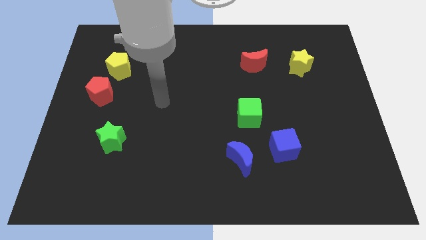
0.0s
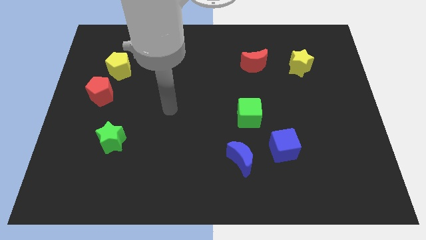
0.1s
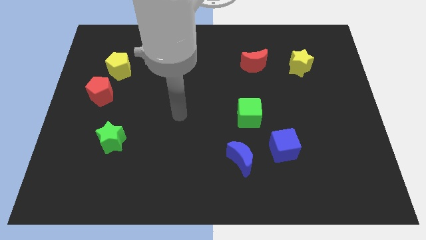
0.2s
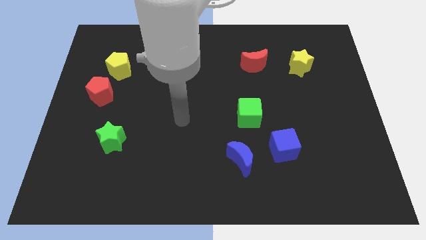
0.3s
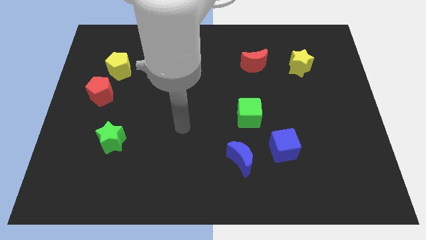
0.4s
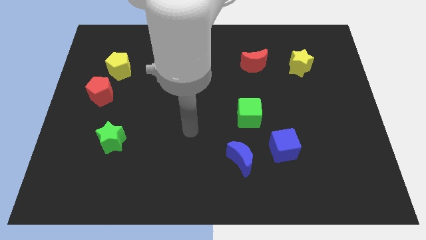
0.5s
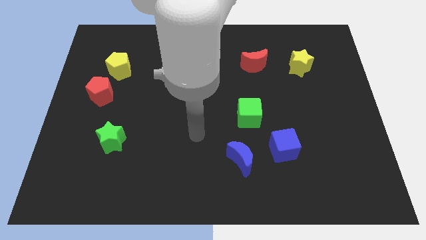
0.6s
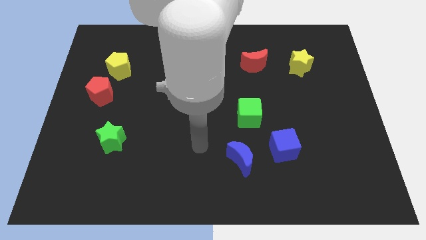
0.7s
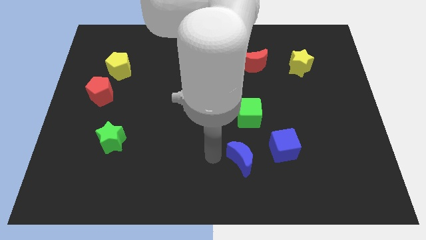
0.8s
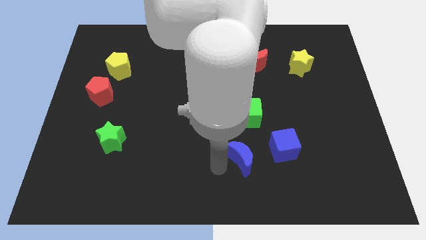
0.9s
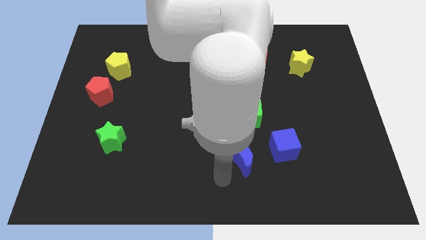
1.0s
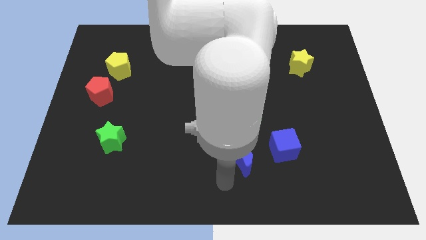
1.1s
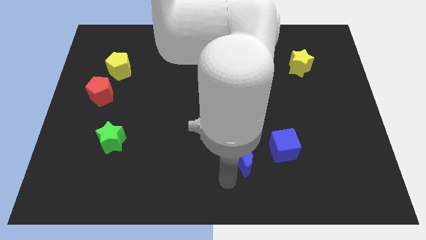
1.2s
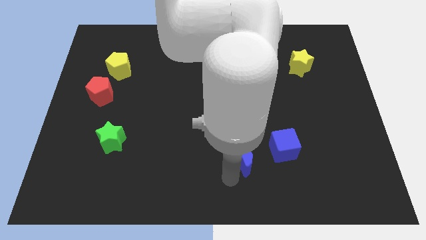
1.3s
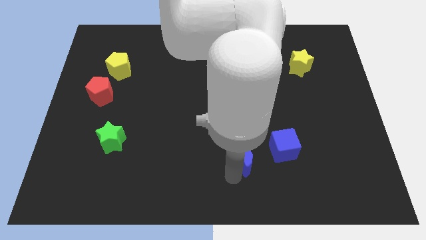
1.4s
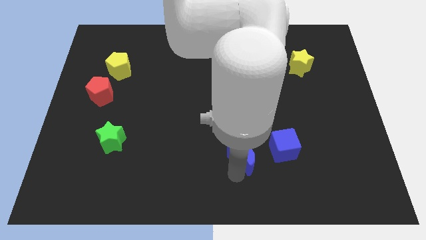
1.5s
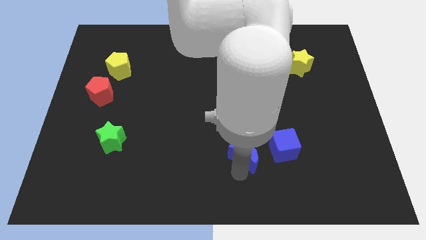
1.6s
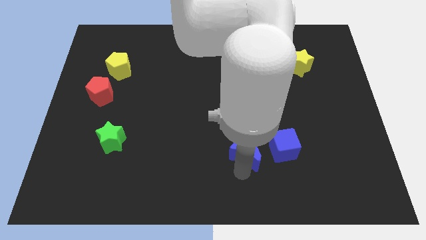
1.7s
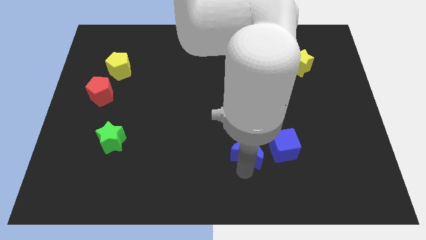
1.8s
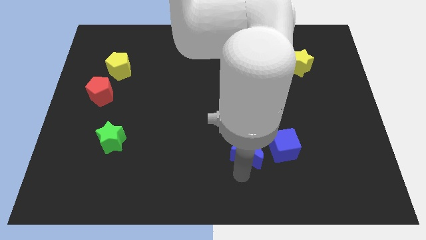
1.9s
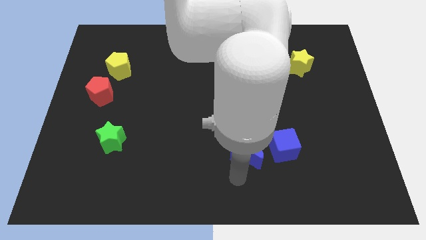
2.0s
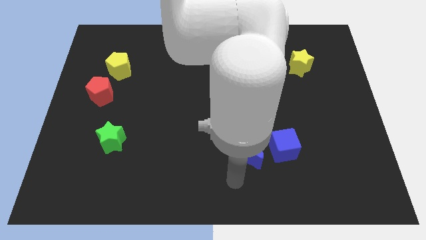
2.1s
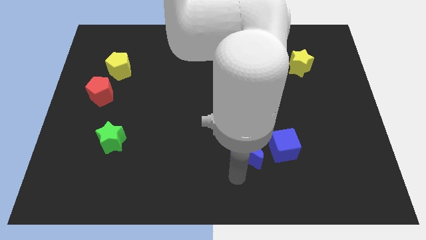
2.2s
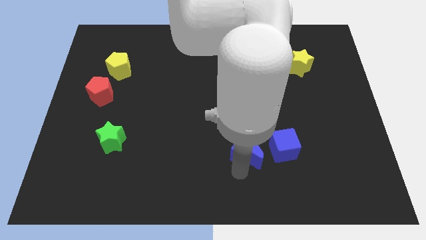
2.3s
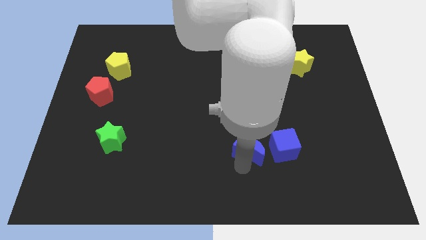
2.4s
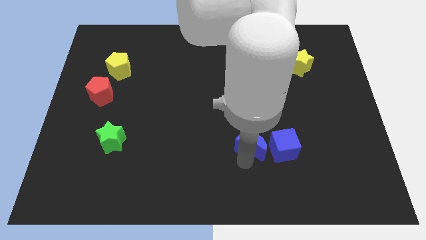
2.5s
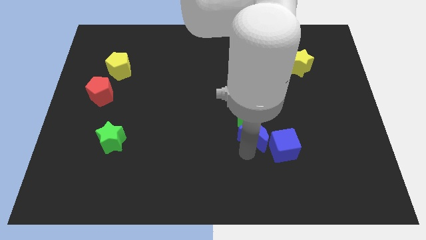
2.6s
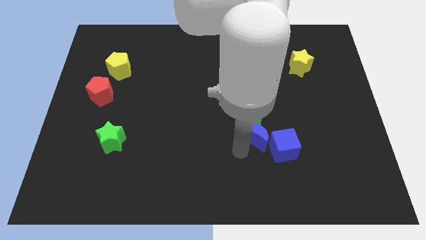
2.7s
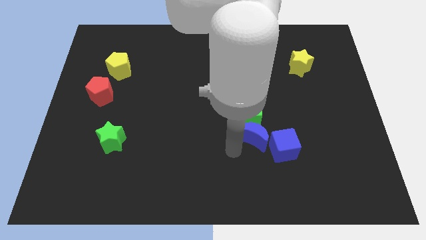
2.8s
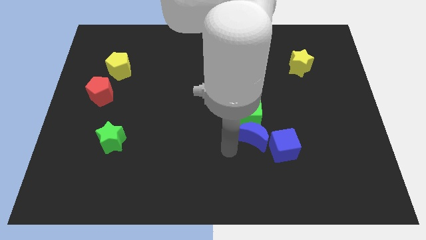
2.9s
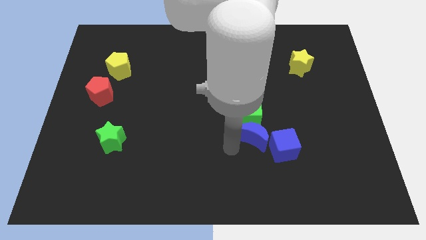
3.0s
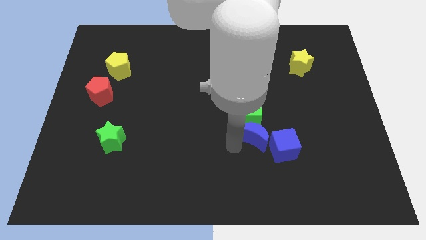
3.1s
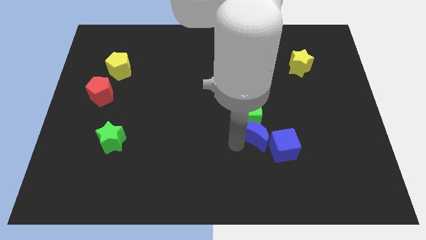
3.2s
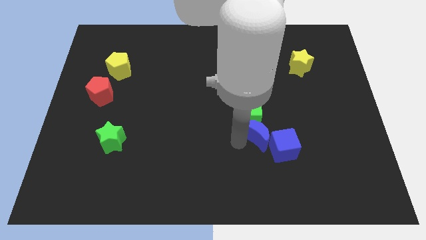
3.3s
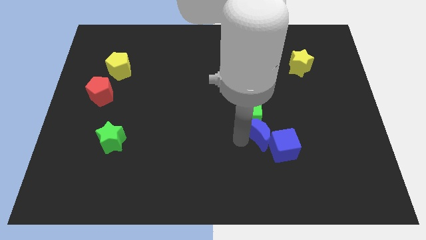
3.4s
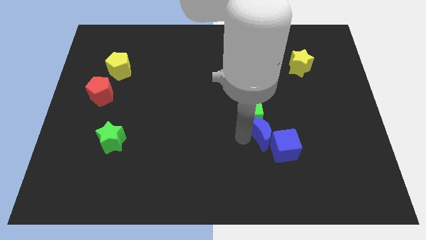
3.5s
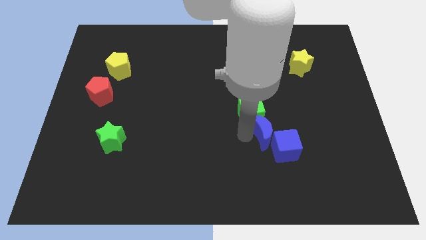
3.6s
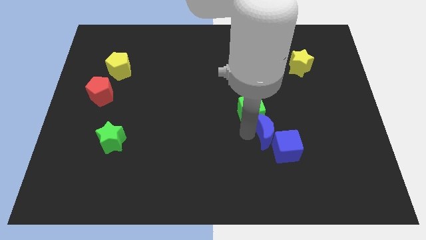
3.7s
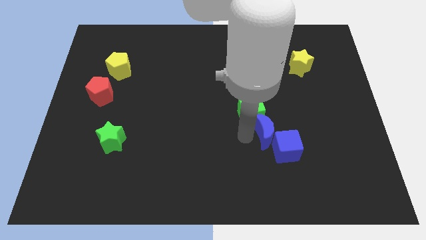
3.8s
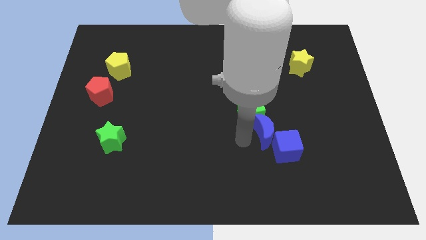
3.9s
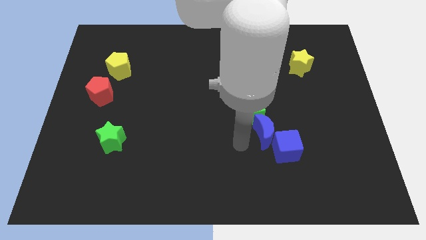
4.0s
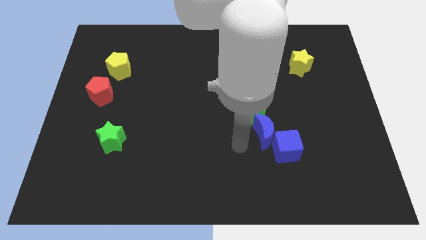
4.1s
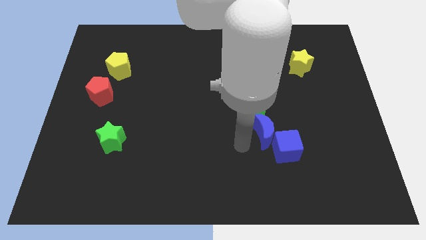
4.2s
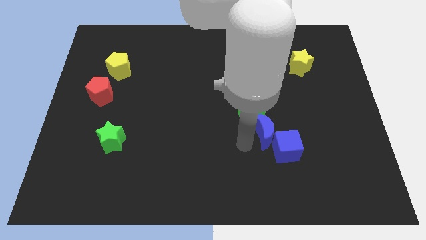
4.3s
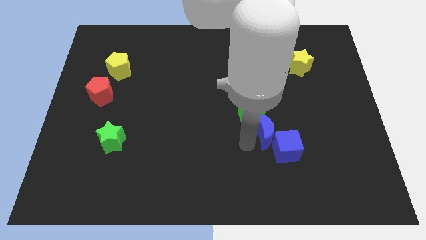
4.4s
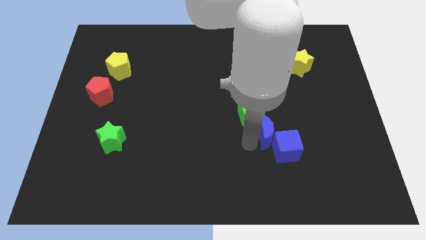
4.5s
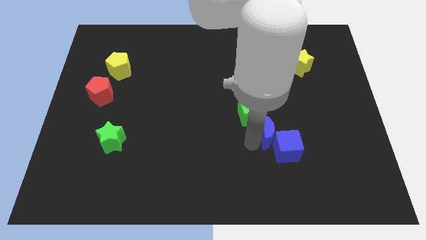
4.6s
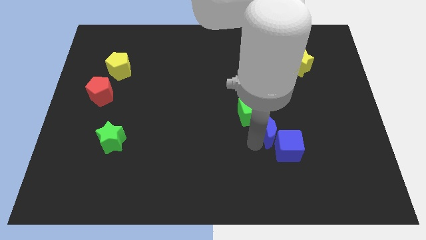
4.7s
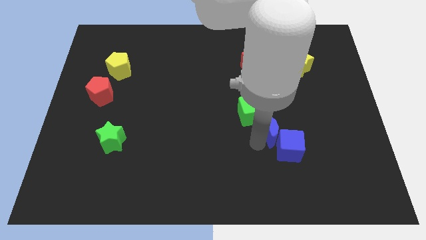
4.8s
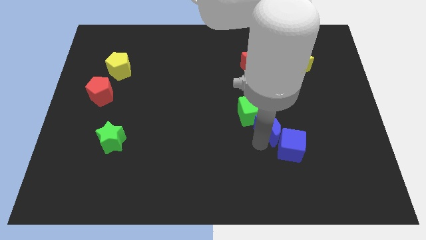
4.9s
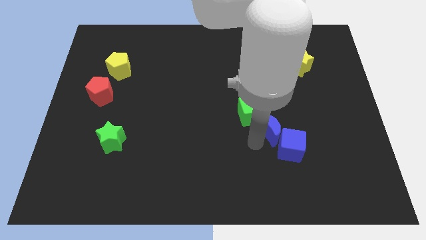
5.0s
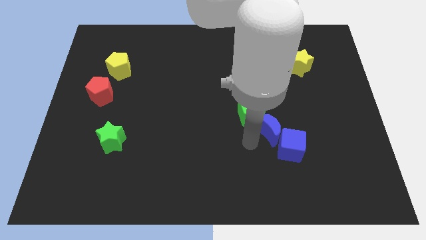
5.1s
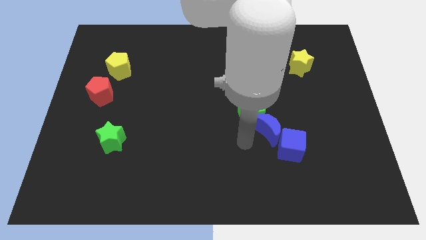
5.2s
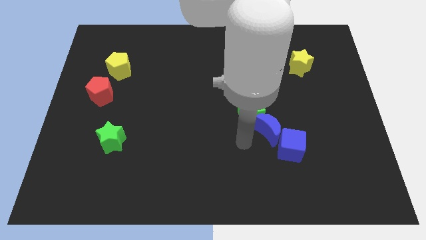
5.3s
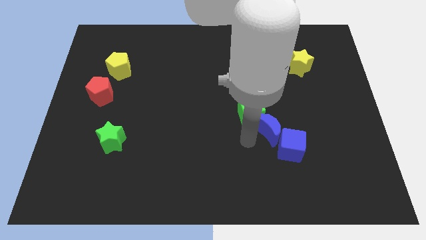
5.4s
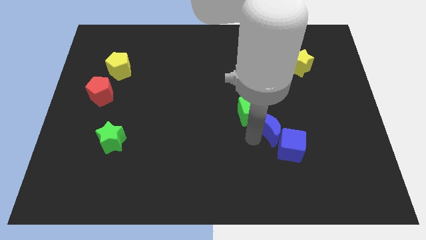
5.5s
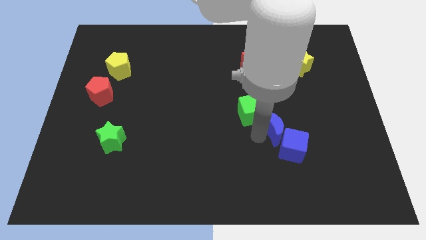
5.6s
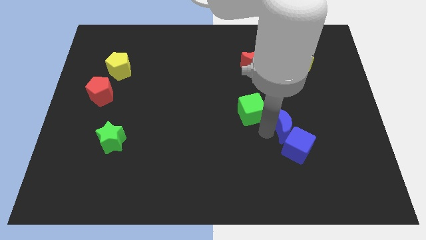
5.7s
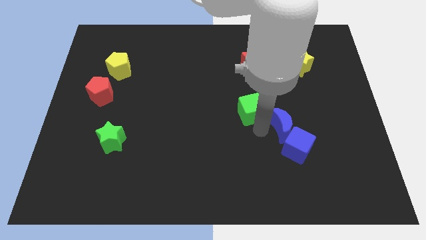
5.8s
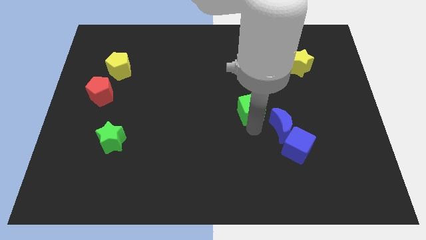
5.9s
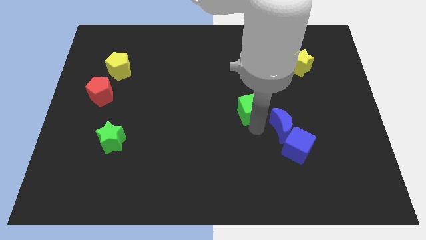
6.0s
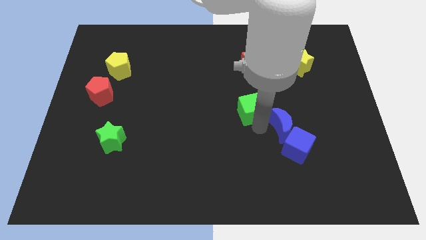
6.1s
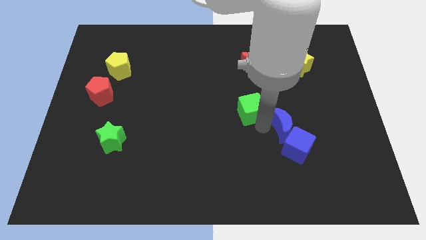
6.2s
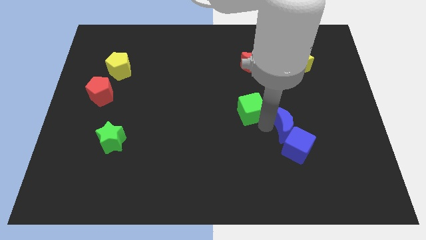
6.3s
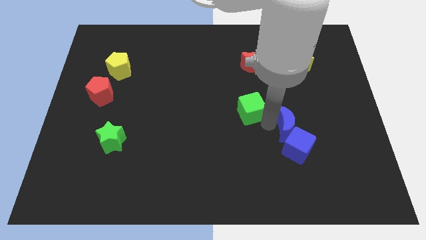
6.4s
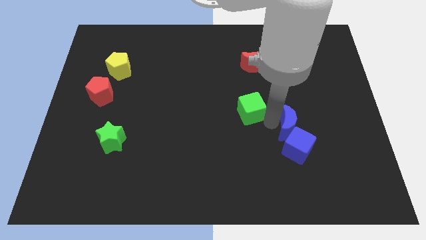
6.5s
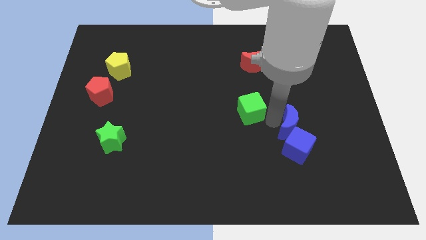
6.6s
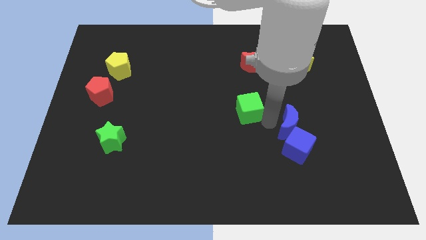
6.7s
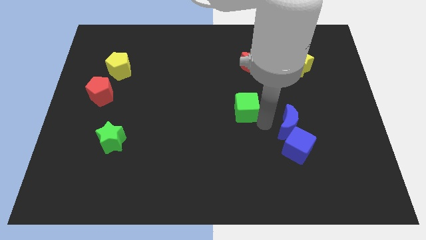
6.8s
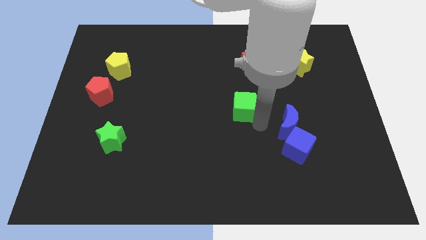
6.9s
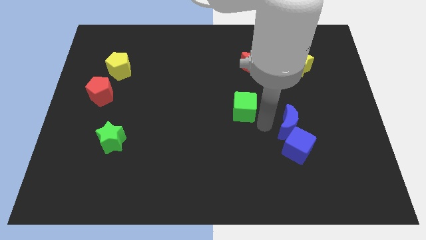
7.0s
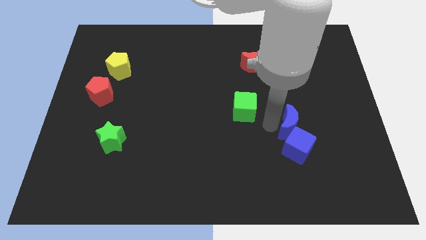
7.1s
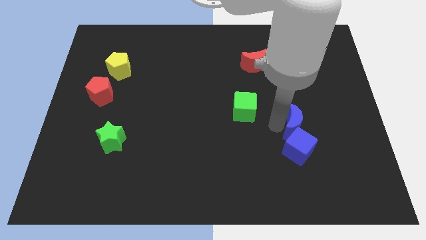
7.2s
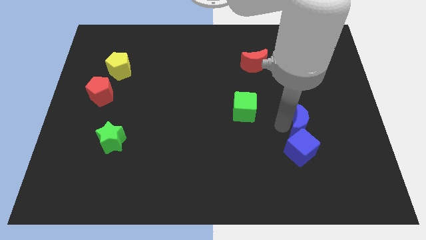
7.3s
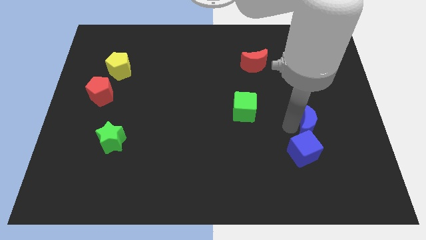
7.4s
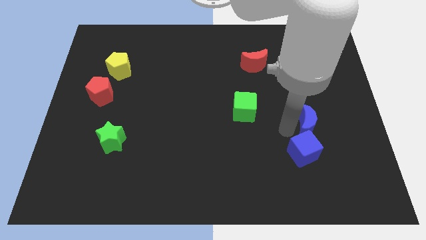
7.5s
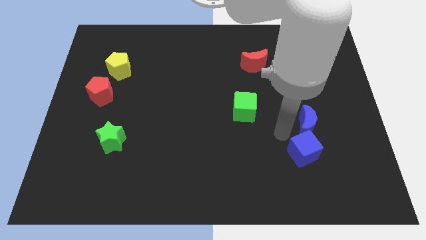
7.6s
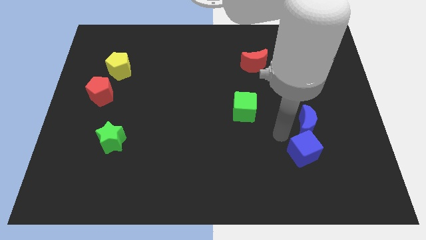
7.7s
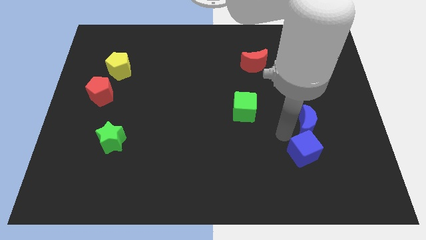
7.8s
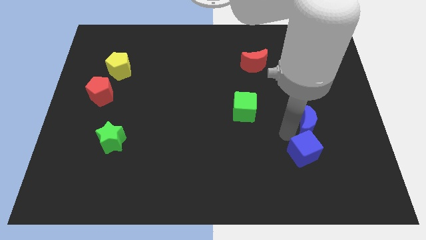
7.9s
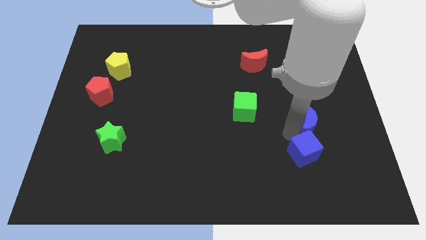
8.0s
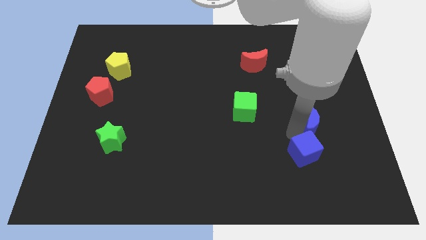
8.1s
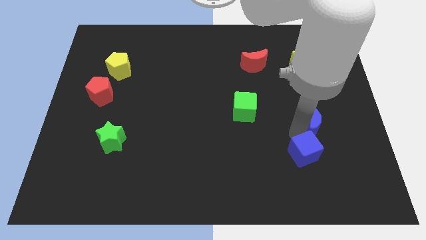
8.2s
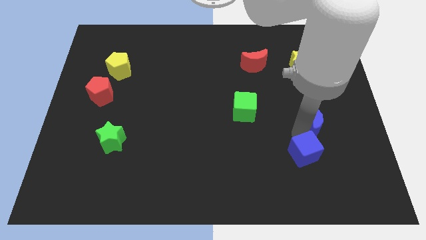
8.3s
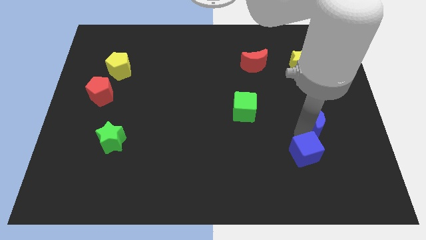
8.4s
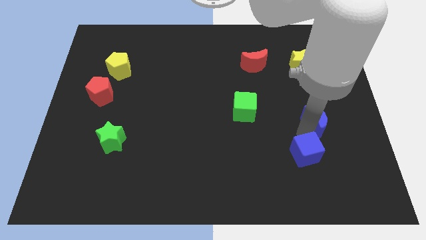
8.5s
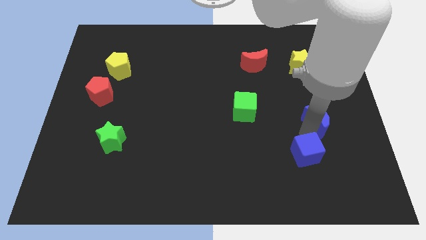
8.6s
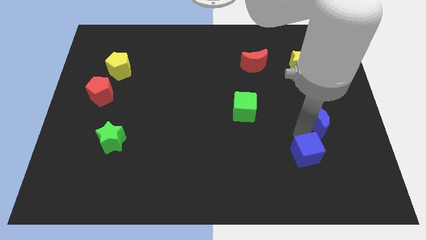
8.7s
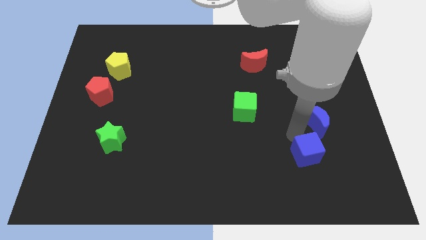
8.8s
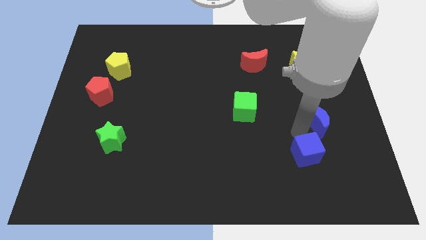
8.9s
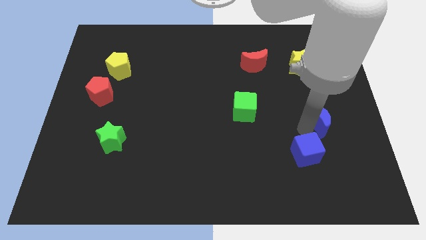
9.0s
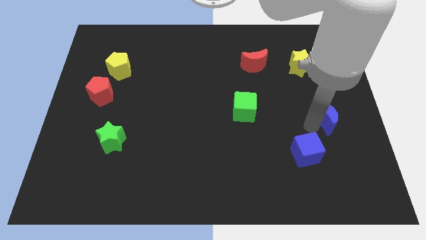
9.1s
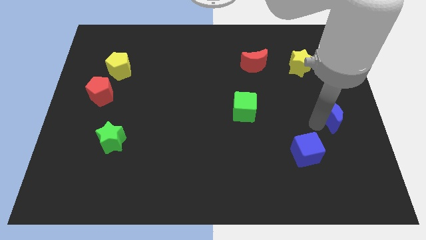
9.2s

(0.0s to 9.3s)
move the blue moon to the center right
